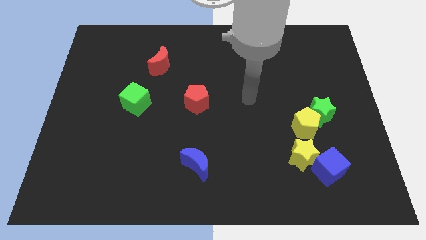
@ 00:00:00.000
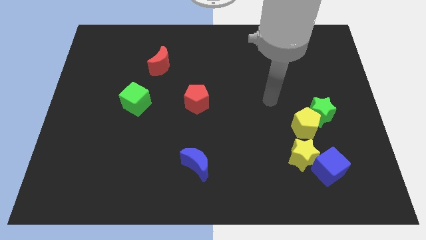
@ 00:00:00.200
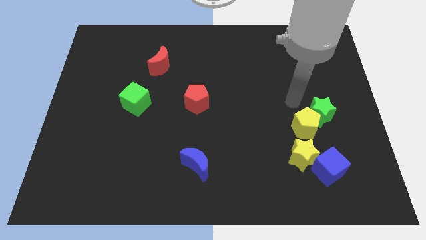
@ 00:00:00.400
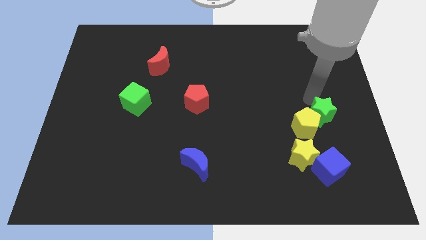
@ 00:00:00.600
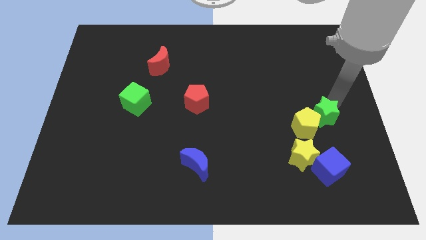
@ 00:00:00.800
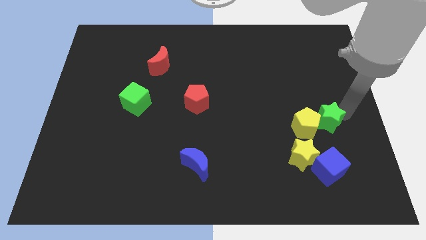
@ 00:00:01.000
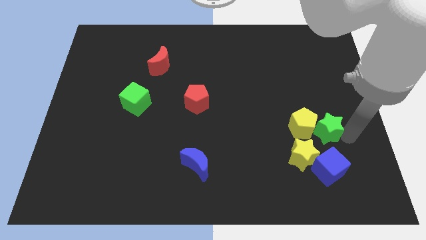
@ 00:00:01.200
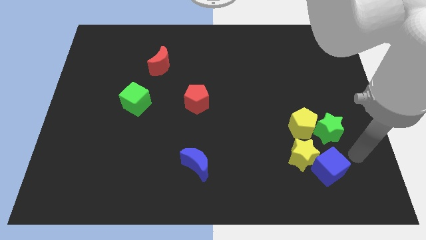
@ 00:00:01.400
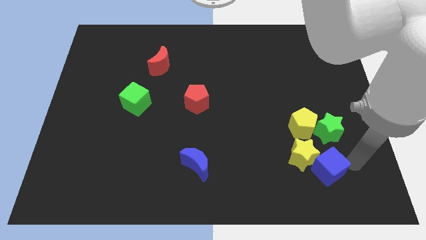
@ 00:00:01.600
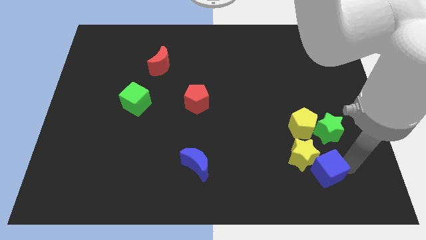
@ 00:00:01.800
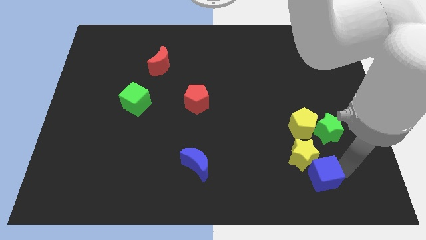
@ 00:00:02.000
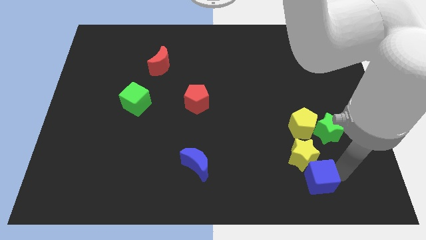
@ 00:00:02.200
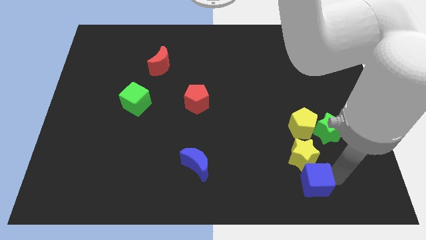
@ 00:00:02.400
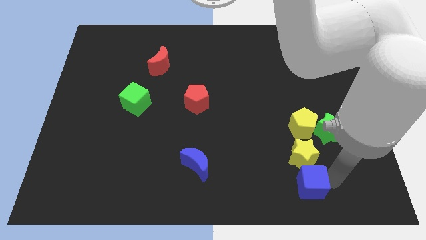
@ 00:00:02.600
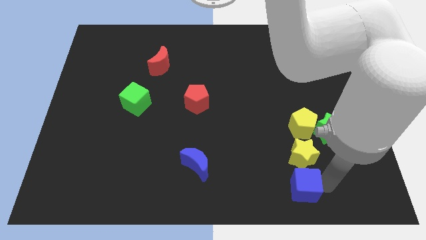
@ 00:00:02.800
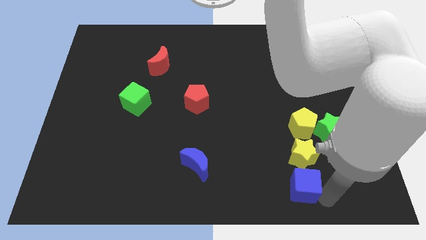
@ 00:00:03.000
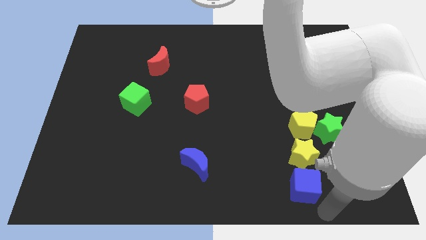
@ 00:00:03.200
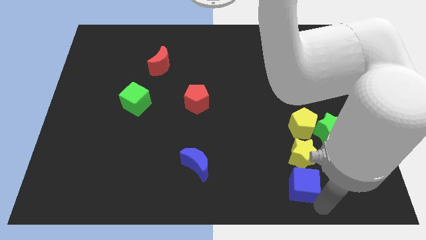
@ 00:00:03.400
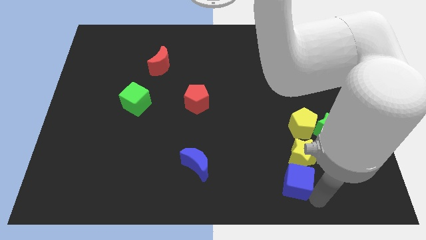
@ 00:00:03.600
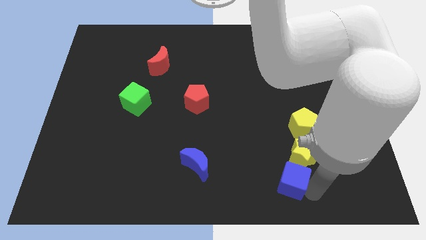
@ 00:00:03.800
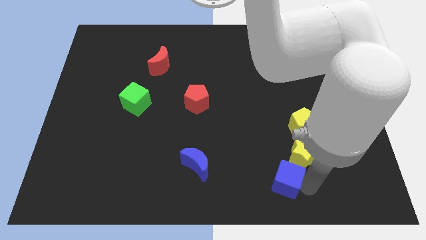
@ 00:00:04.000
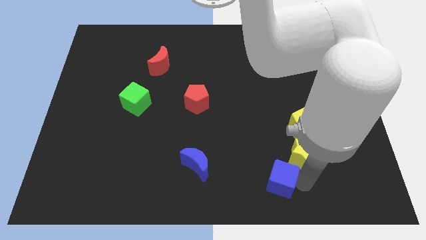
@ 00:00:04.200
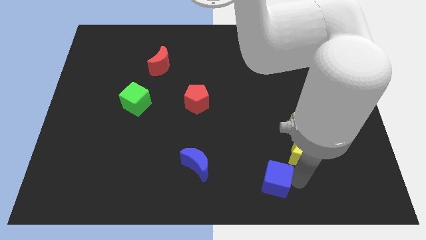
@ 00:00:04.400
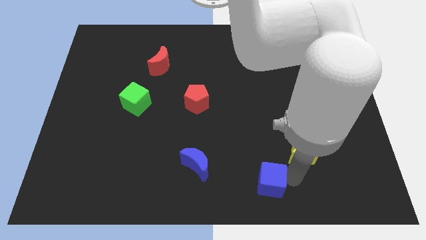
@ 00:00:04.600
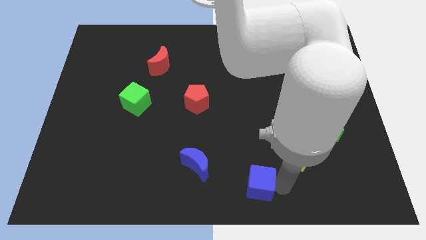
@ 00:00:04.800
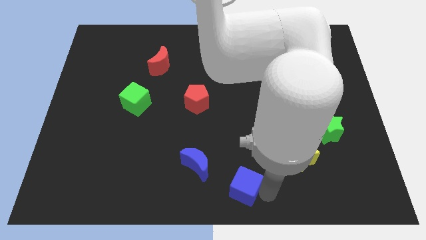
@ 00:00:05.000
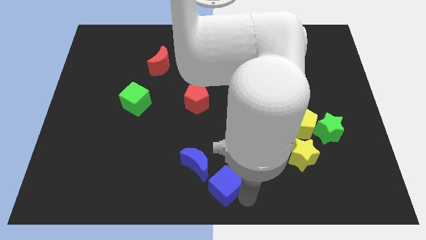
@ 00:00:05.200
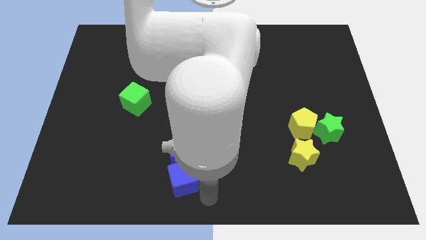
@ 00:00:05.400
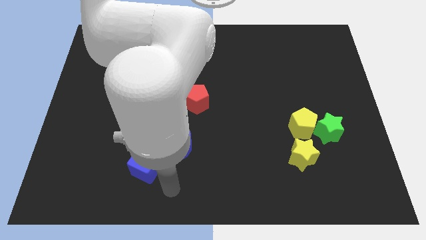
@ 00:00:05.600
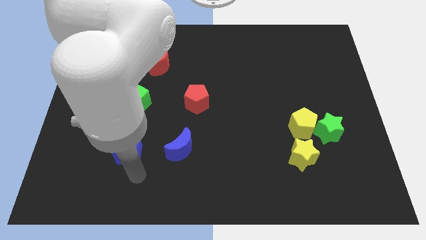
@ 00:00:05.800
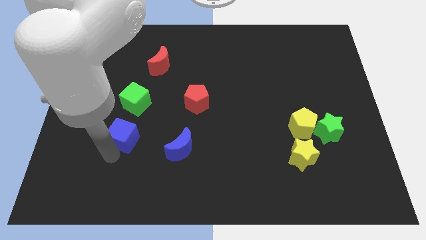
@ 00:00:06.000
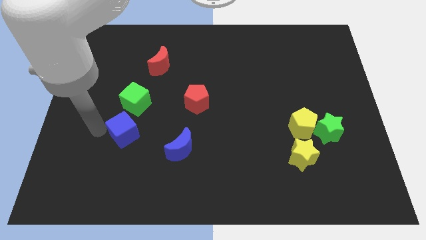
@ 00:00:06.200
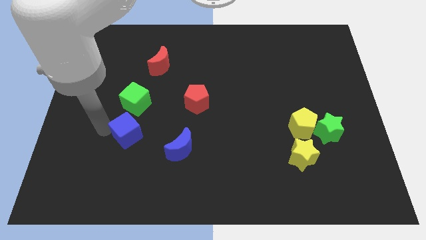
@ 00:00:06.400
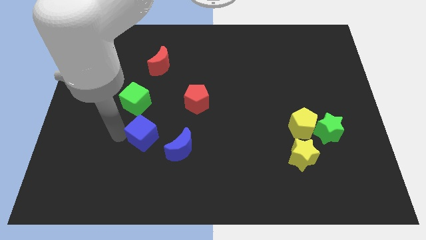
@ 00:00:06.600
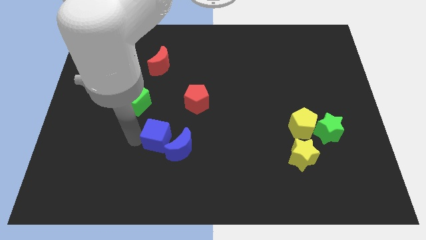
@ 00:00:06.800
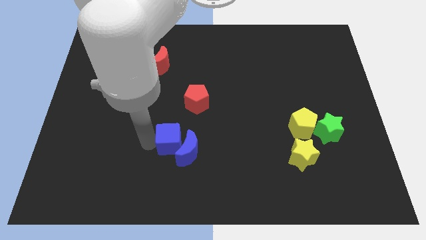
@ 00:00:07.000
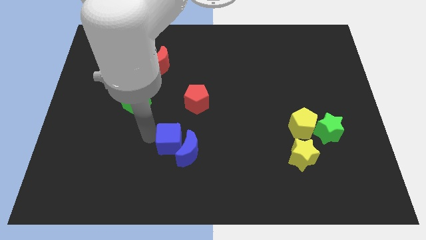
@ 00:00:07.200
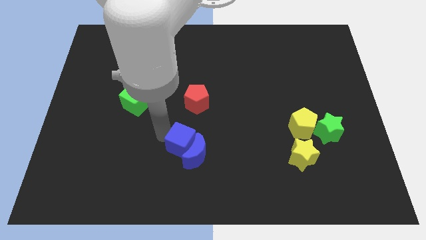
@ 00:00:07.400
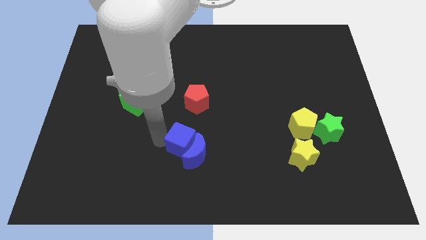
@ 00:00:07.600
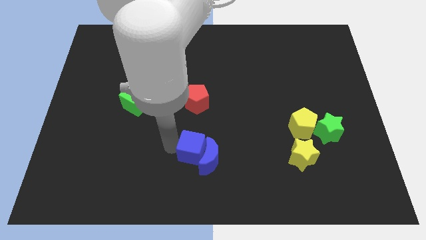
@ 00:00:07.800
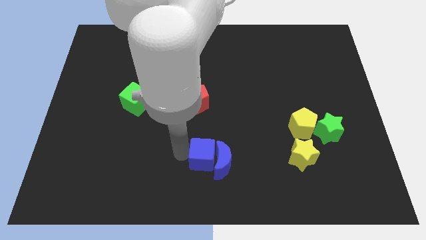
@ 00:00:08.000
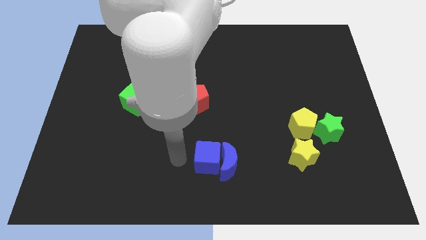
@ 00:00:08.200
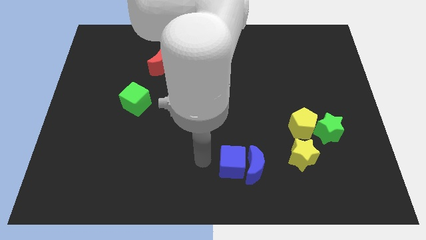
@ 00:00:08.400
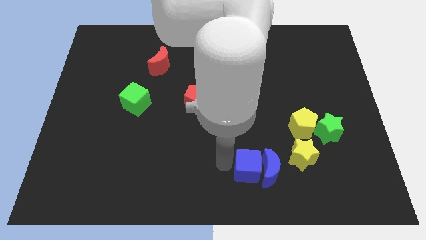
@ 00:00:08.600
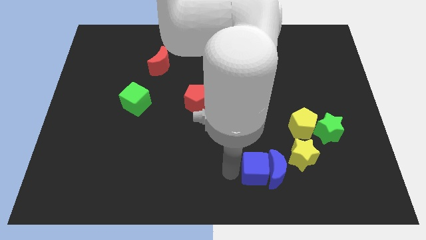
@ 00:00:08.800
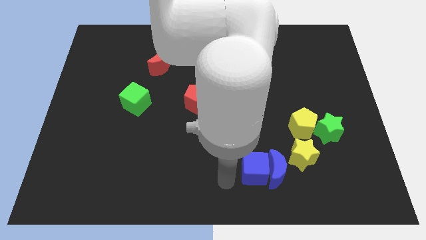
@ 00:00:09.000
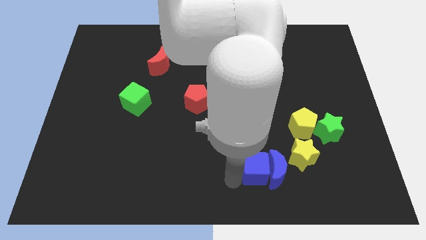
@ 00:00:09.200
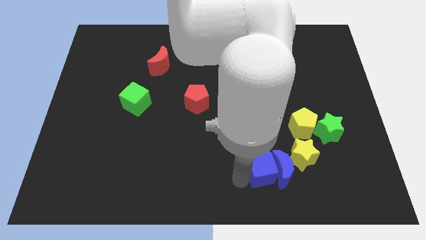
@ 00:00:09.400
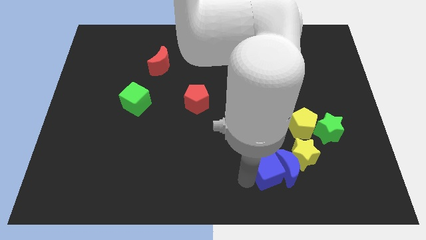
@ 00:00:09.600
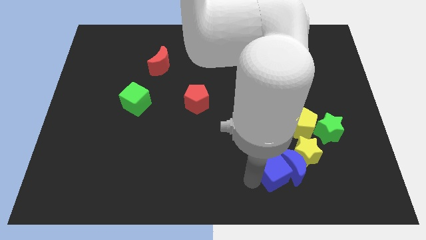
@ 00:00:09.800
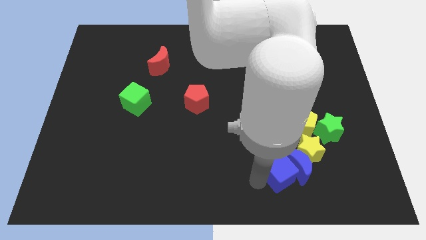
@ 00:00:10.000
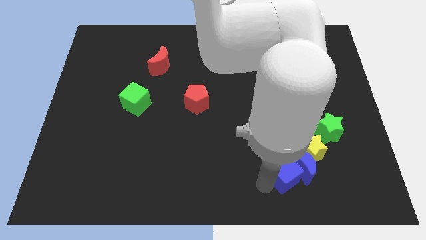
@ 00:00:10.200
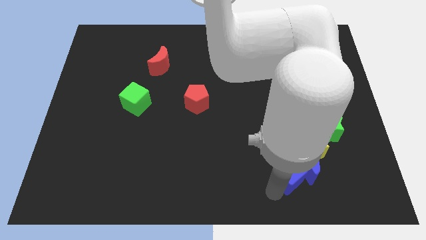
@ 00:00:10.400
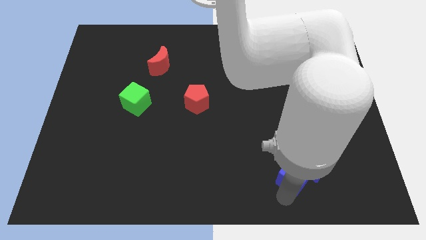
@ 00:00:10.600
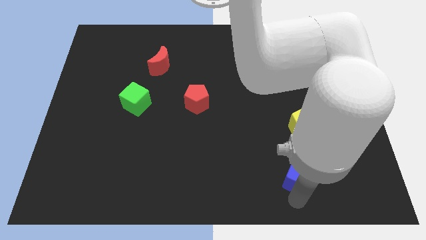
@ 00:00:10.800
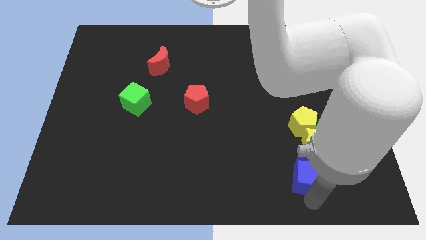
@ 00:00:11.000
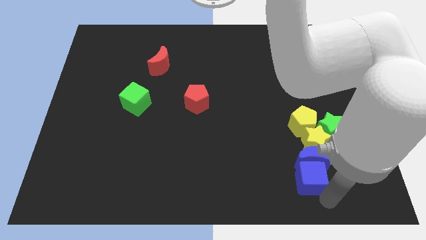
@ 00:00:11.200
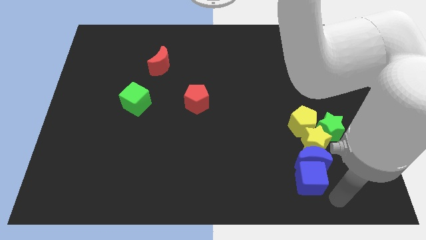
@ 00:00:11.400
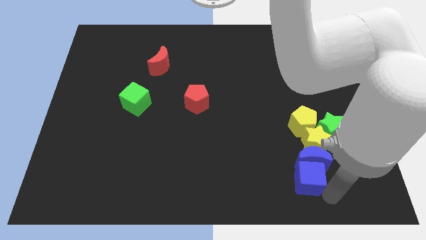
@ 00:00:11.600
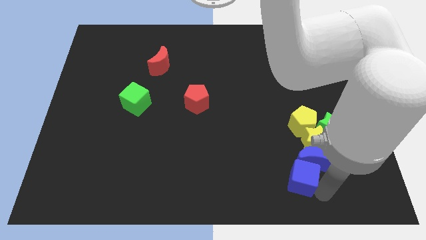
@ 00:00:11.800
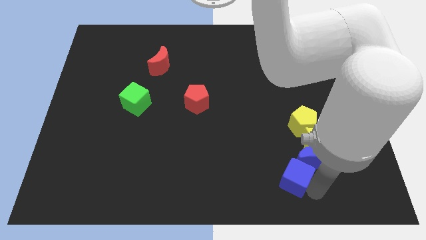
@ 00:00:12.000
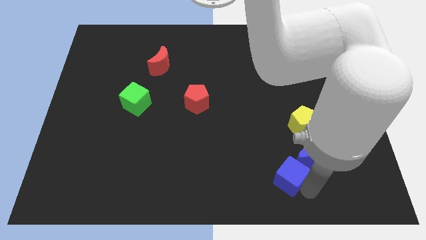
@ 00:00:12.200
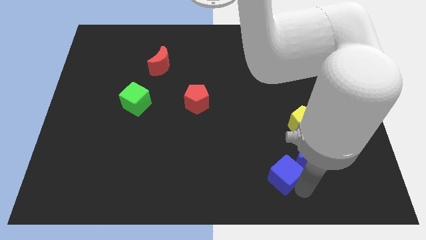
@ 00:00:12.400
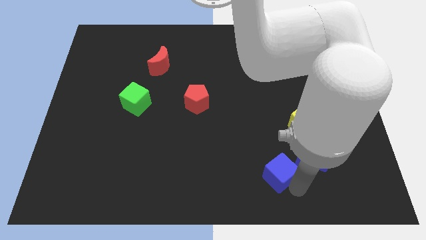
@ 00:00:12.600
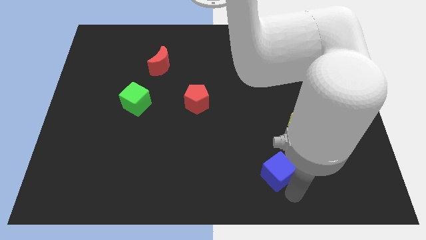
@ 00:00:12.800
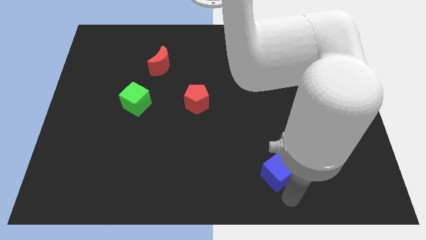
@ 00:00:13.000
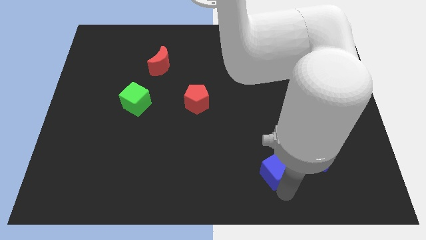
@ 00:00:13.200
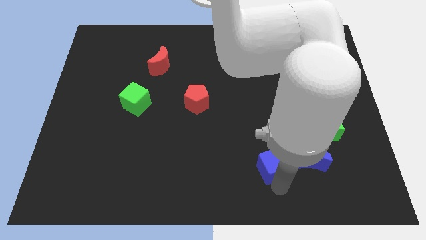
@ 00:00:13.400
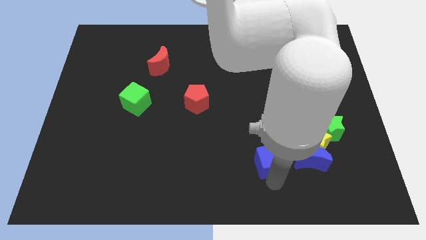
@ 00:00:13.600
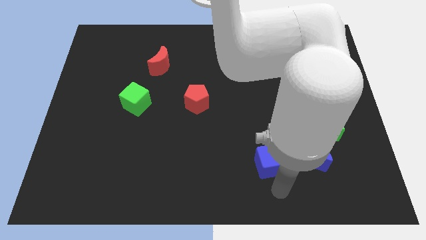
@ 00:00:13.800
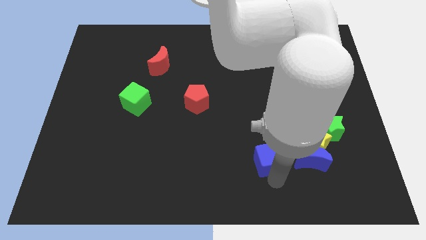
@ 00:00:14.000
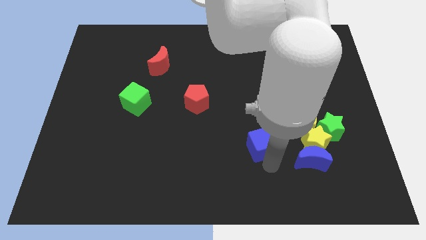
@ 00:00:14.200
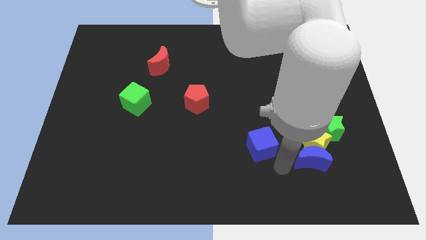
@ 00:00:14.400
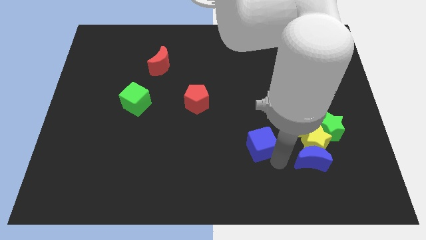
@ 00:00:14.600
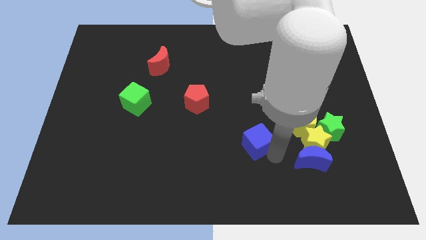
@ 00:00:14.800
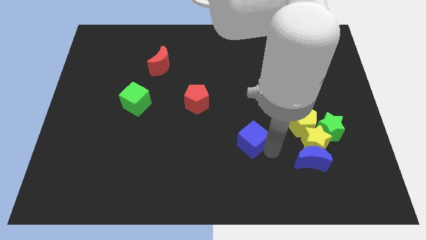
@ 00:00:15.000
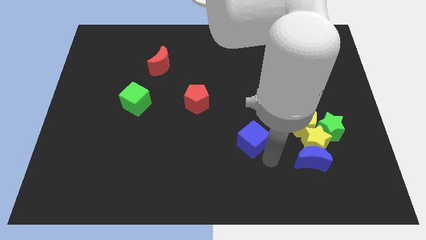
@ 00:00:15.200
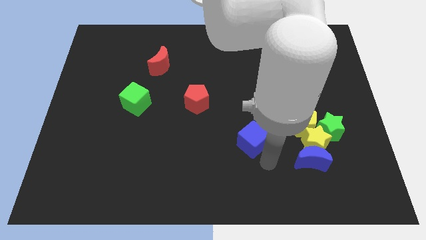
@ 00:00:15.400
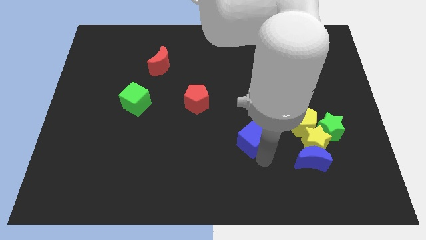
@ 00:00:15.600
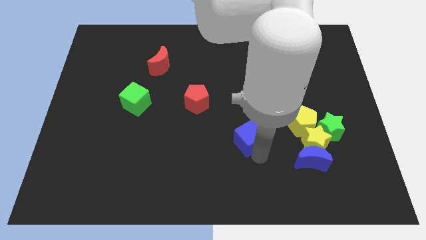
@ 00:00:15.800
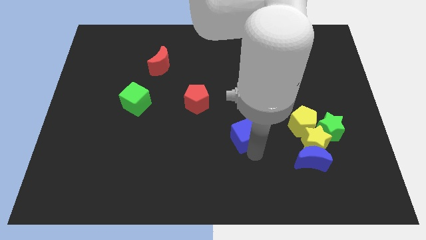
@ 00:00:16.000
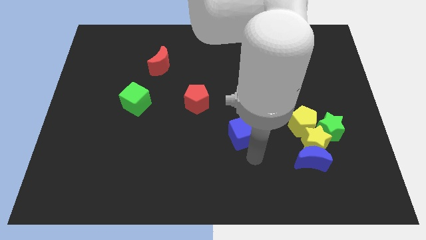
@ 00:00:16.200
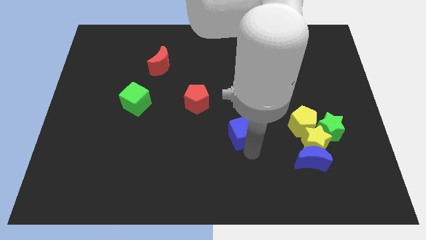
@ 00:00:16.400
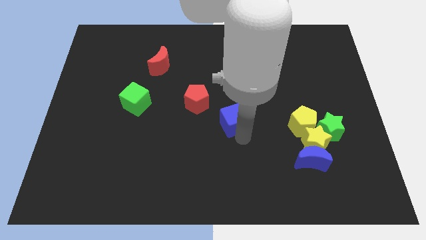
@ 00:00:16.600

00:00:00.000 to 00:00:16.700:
move the blue cube upwards and left diagonally
